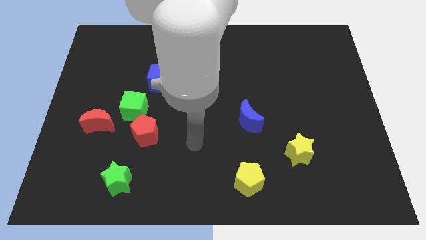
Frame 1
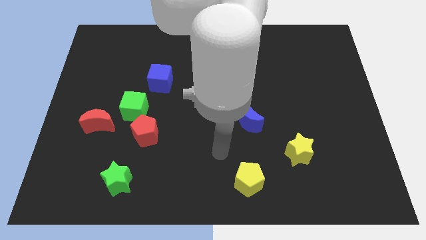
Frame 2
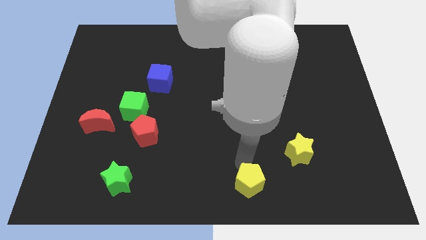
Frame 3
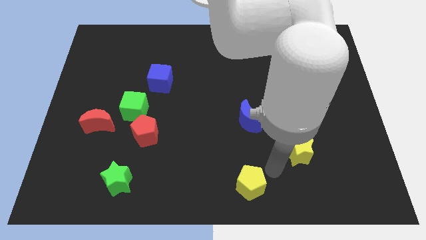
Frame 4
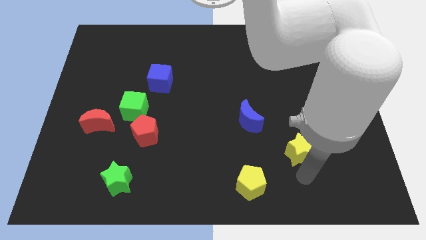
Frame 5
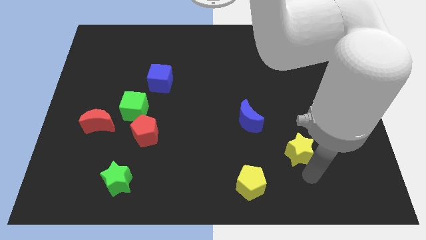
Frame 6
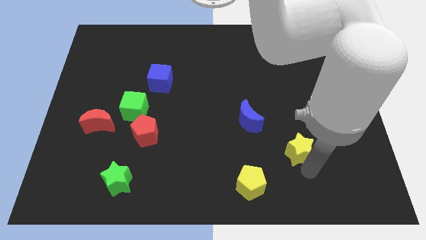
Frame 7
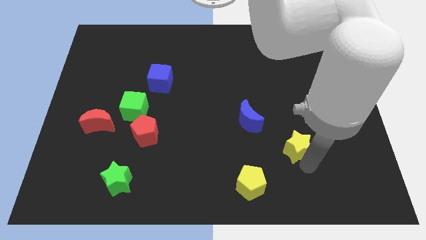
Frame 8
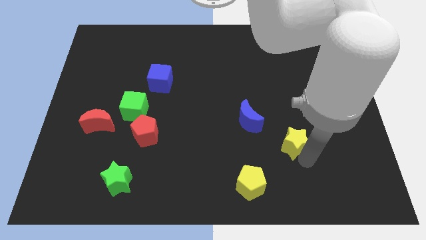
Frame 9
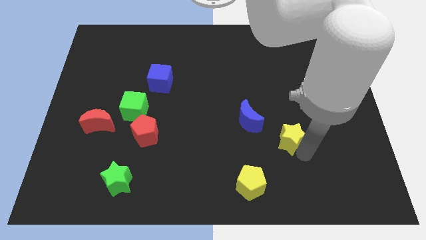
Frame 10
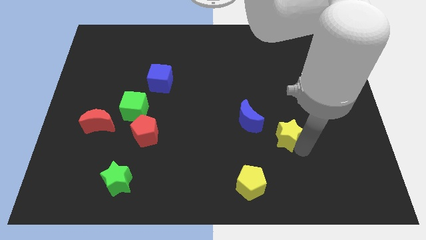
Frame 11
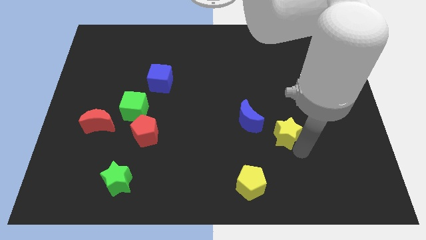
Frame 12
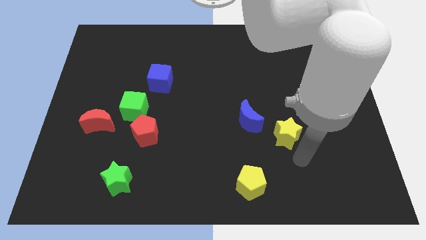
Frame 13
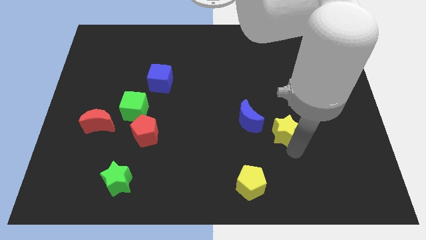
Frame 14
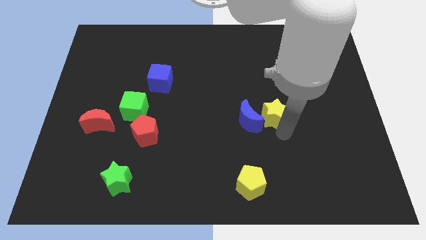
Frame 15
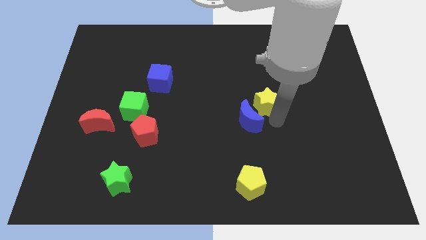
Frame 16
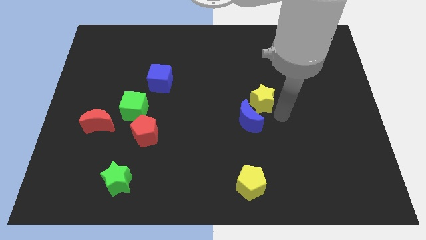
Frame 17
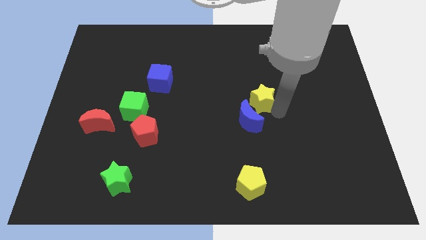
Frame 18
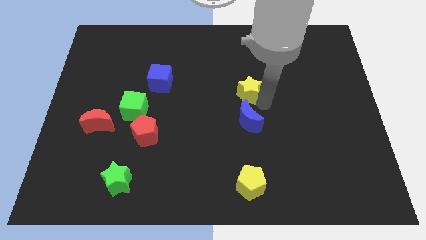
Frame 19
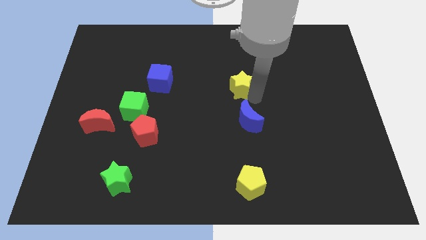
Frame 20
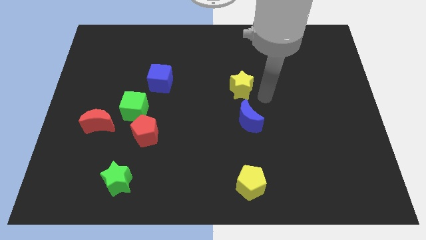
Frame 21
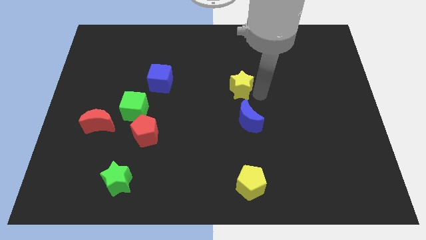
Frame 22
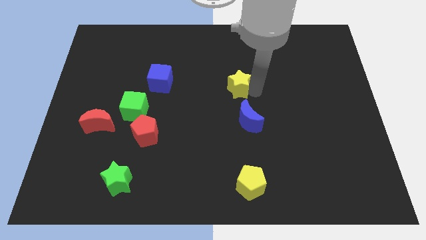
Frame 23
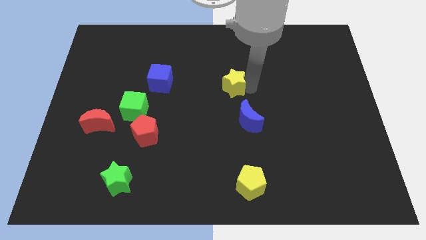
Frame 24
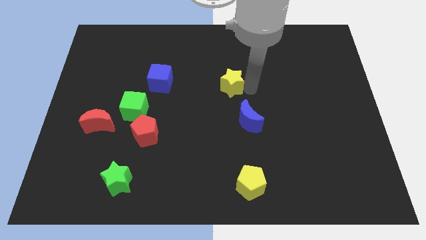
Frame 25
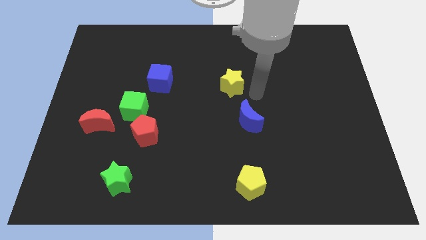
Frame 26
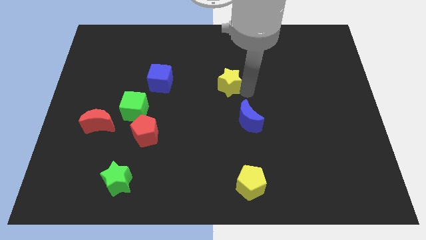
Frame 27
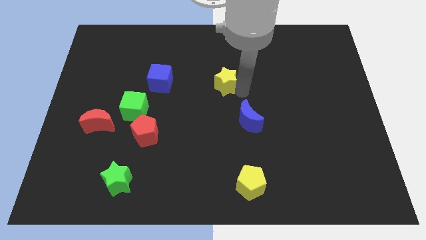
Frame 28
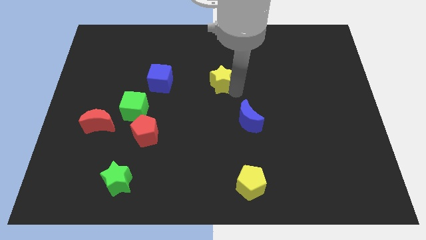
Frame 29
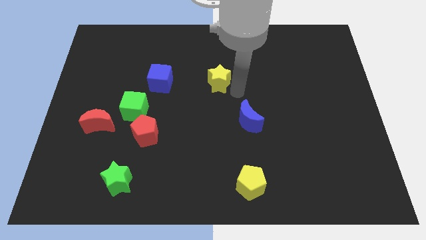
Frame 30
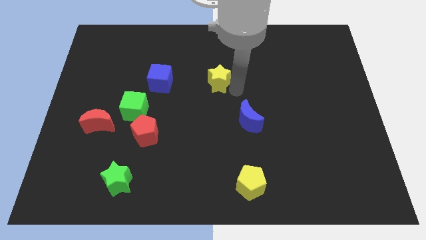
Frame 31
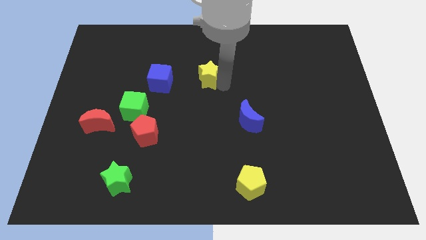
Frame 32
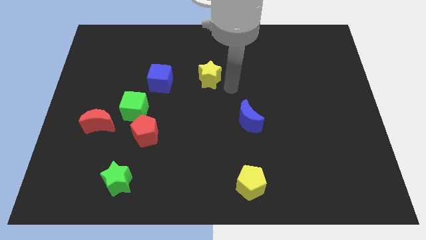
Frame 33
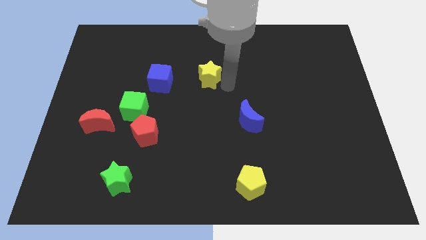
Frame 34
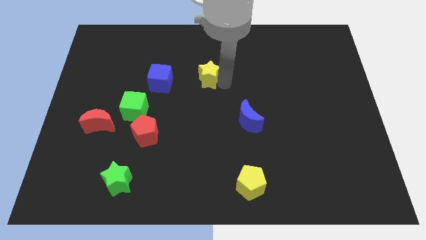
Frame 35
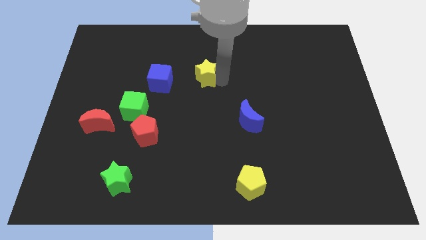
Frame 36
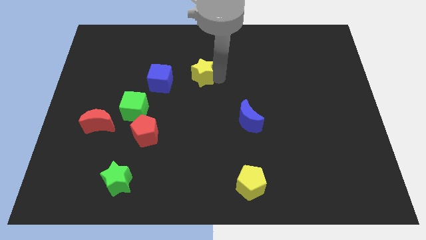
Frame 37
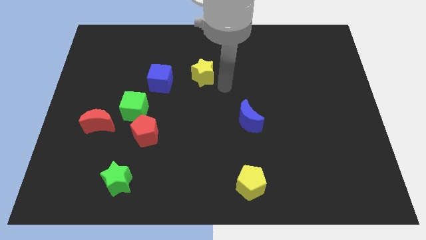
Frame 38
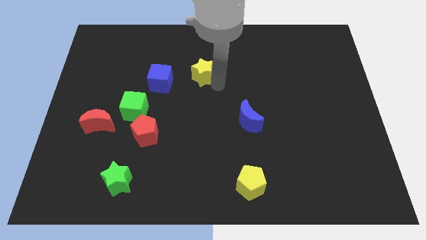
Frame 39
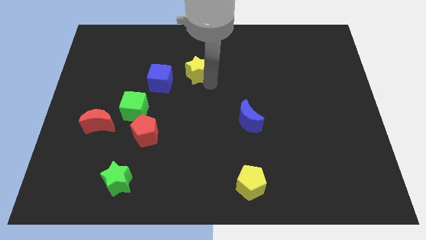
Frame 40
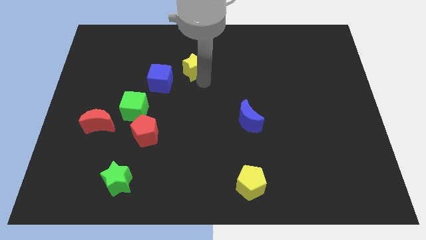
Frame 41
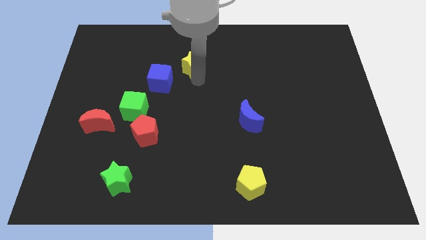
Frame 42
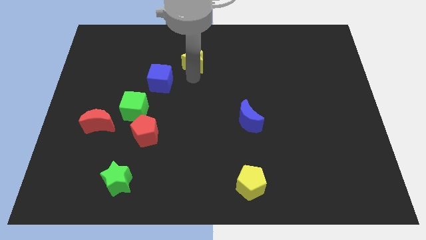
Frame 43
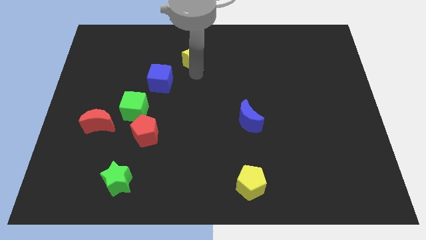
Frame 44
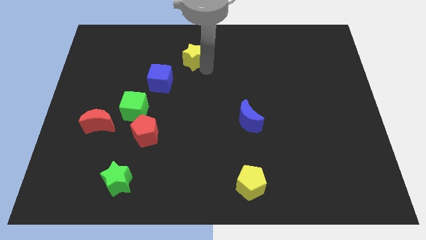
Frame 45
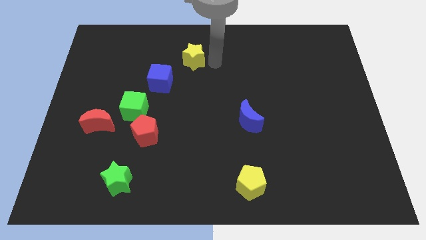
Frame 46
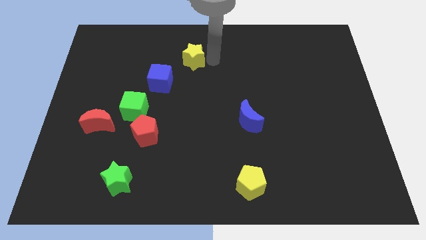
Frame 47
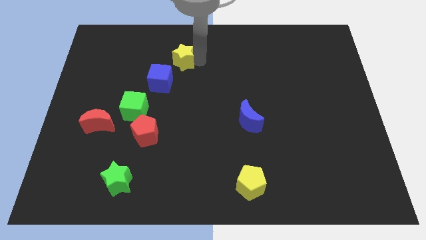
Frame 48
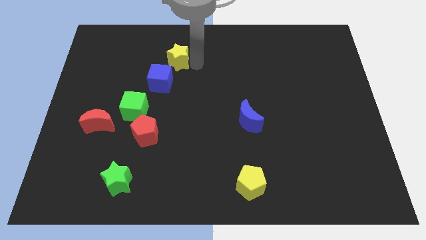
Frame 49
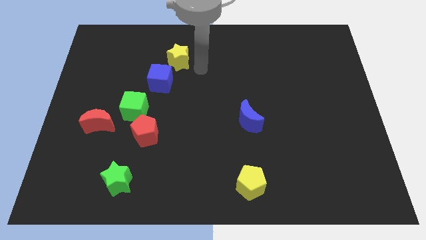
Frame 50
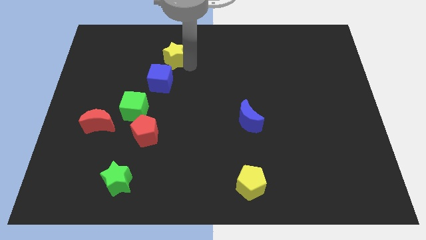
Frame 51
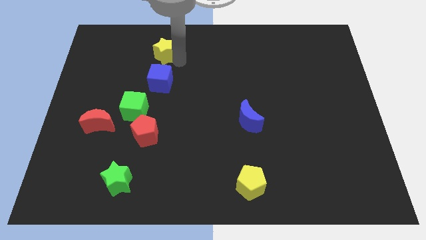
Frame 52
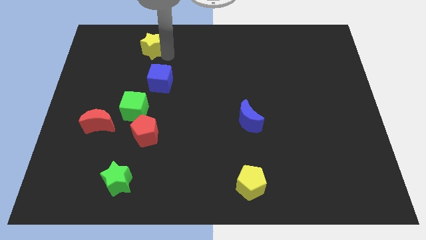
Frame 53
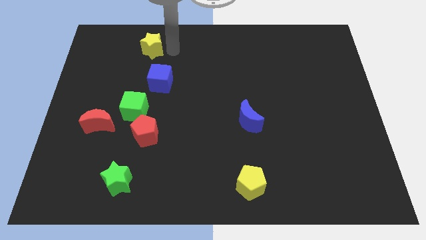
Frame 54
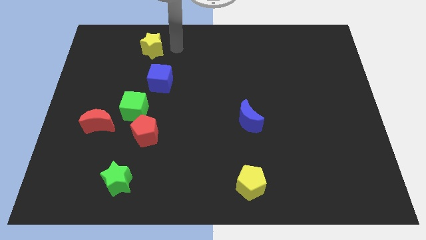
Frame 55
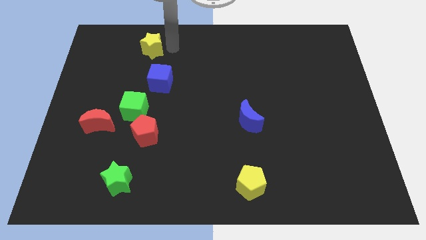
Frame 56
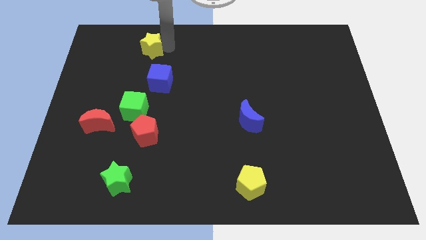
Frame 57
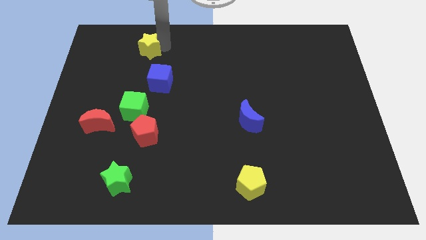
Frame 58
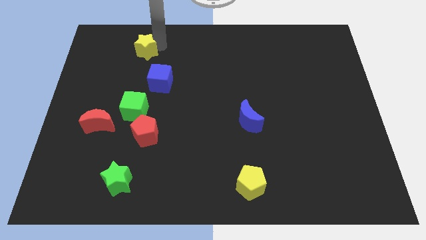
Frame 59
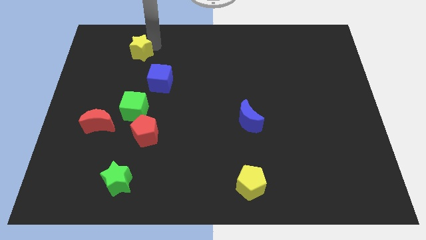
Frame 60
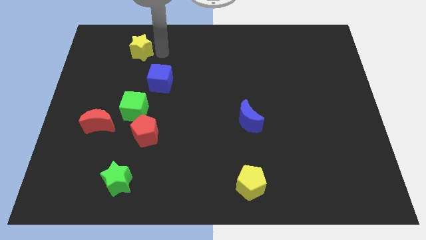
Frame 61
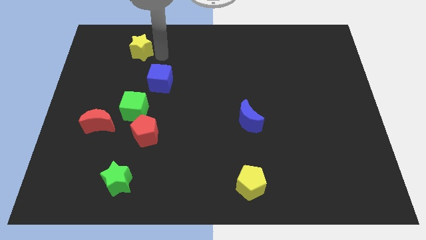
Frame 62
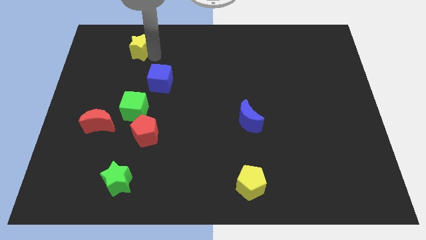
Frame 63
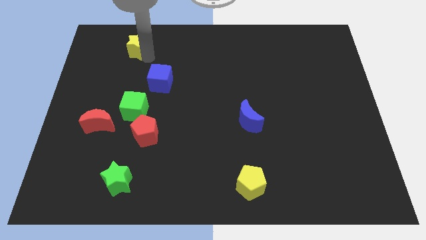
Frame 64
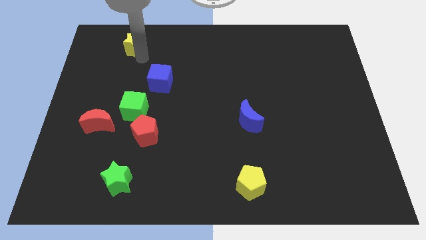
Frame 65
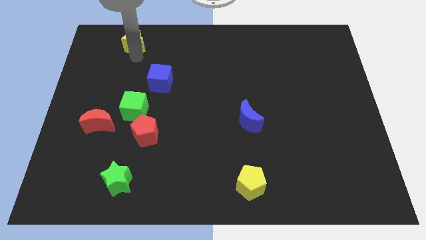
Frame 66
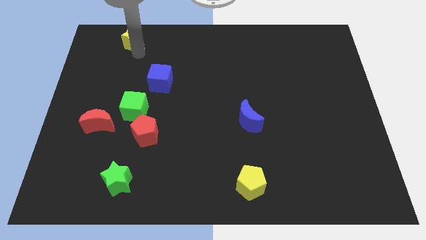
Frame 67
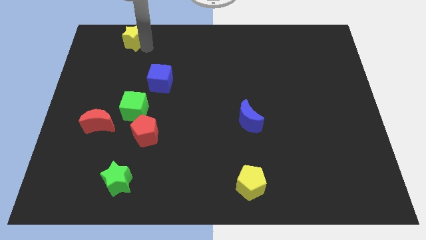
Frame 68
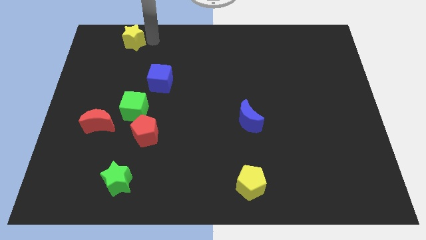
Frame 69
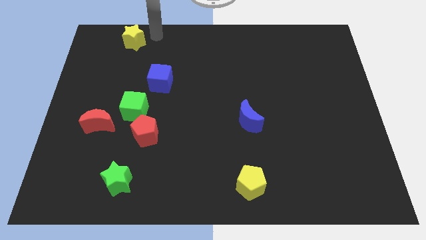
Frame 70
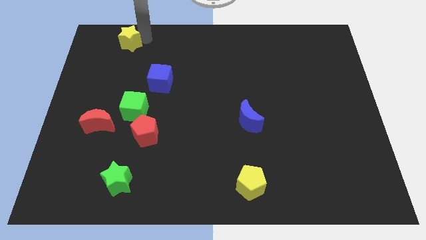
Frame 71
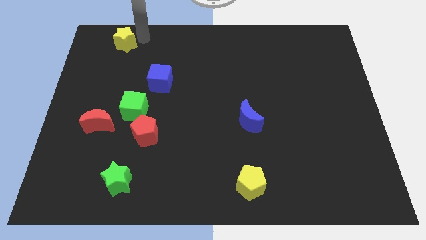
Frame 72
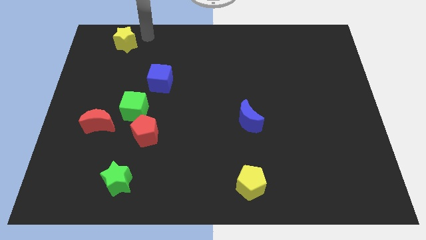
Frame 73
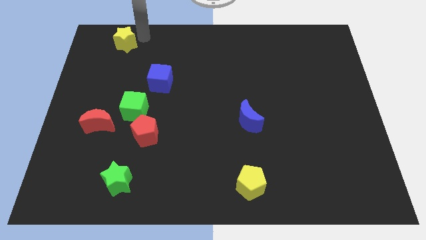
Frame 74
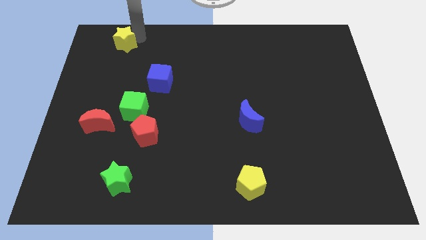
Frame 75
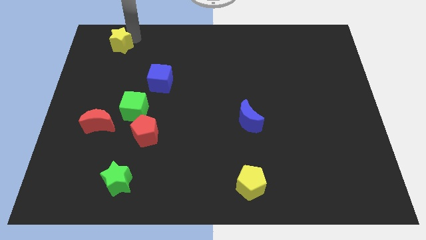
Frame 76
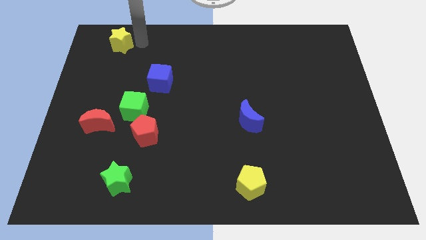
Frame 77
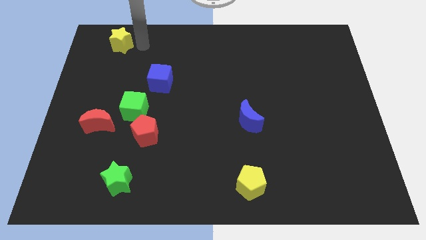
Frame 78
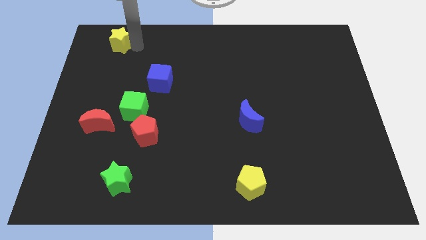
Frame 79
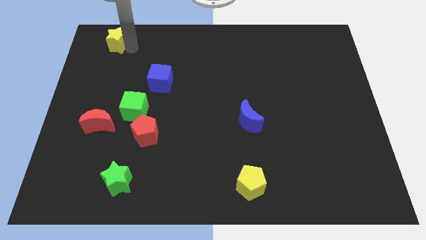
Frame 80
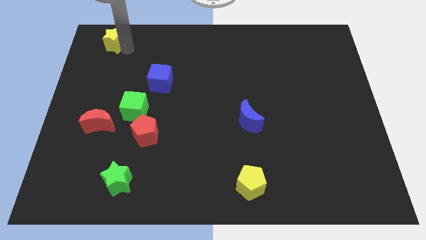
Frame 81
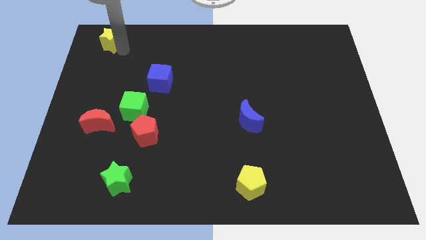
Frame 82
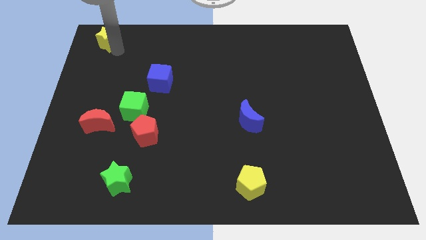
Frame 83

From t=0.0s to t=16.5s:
put the yellow star to the top left corner
